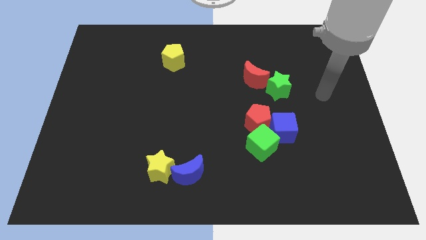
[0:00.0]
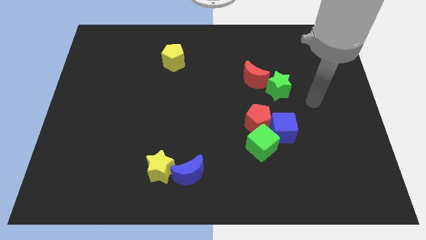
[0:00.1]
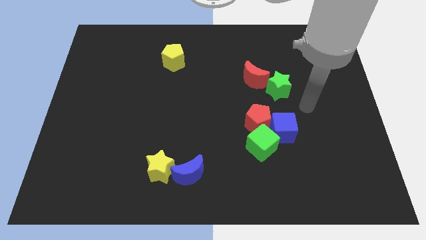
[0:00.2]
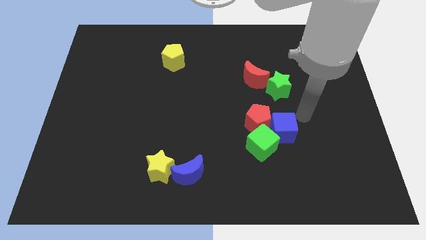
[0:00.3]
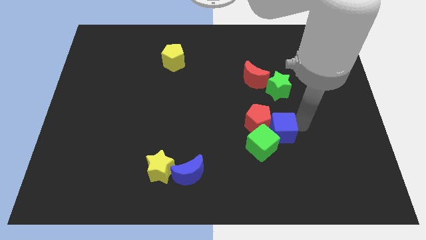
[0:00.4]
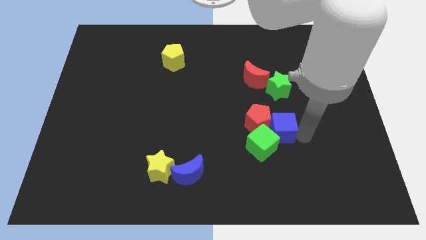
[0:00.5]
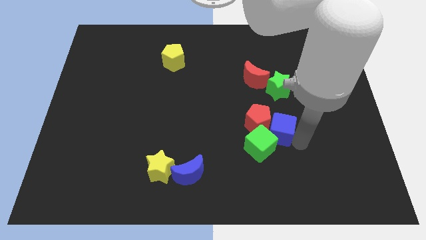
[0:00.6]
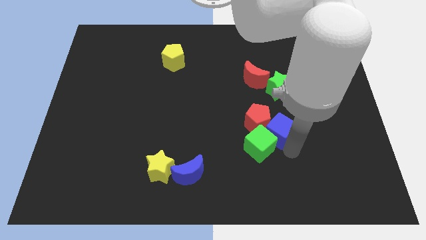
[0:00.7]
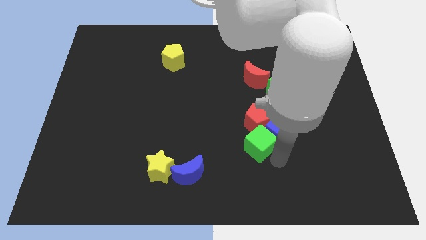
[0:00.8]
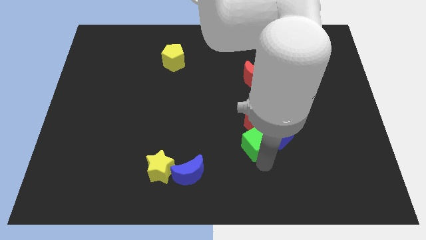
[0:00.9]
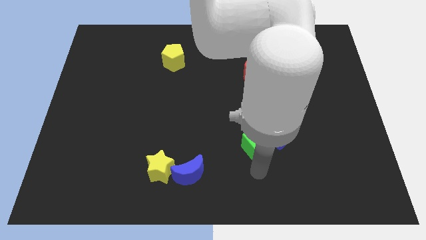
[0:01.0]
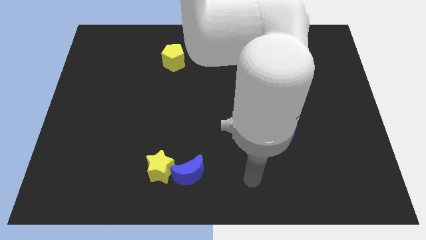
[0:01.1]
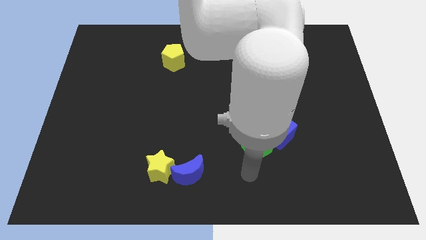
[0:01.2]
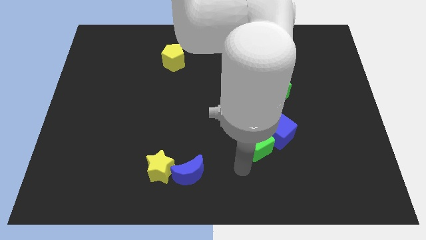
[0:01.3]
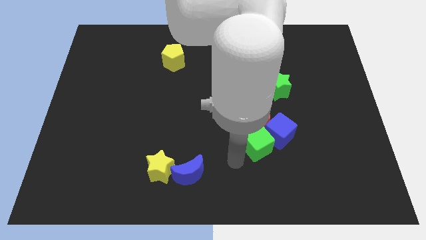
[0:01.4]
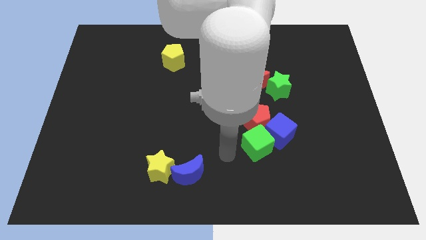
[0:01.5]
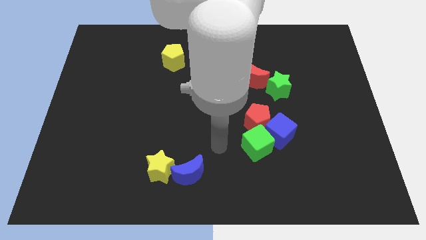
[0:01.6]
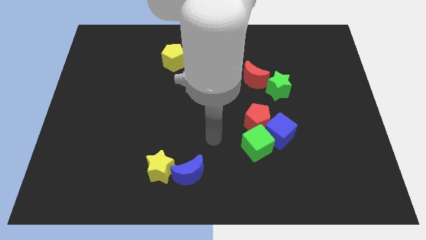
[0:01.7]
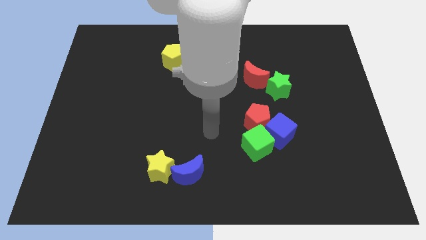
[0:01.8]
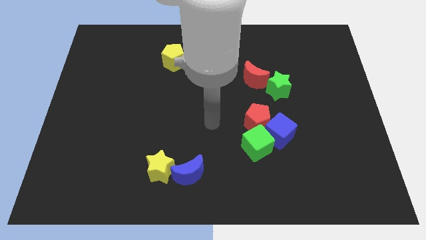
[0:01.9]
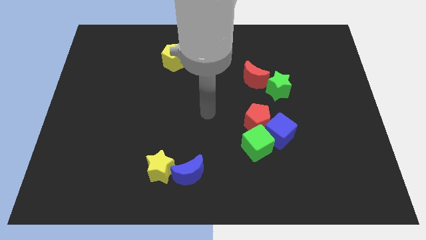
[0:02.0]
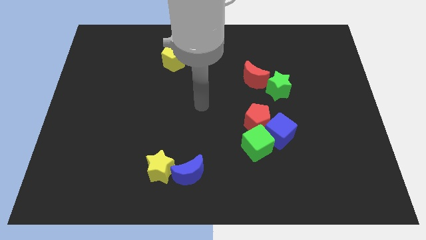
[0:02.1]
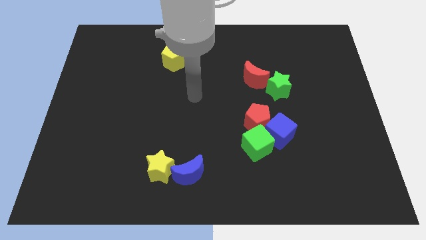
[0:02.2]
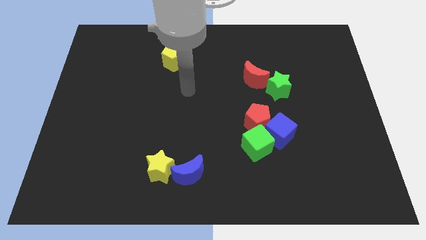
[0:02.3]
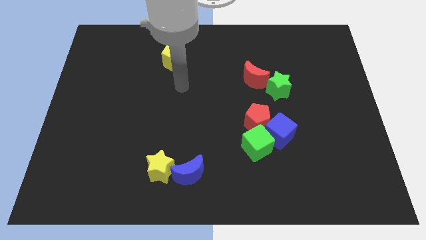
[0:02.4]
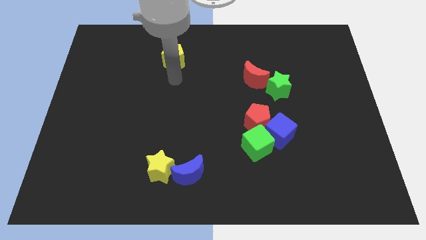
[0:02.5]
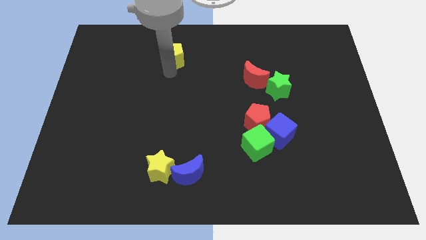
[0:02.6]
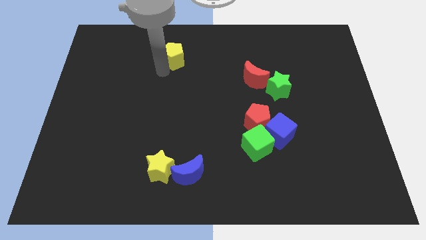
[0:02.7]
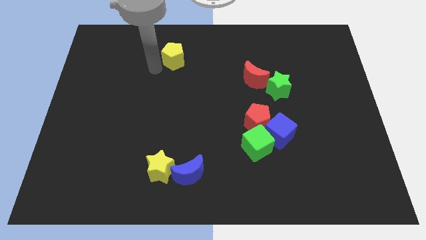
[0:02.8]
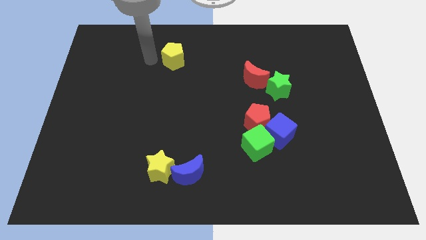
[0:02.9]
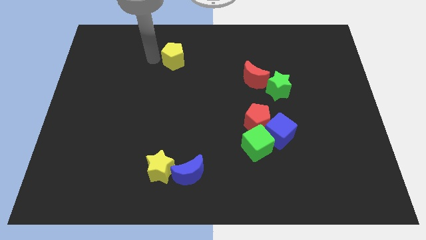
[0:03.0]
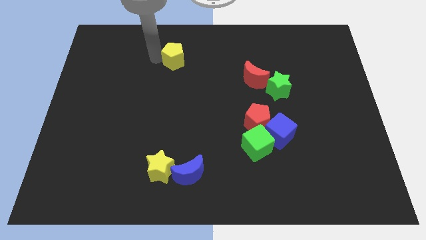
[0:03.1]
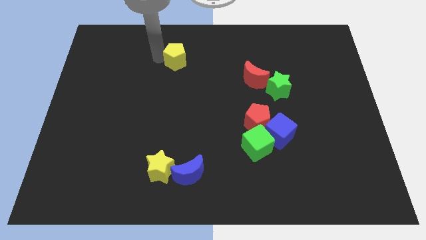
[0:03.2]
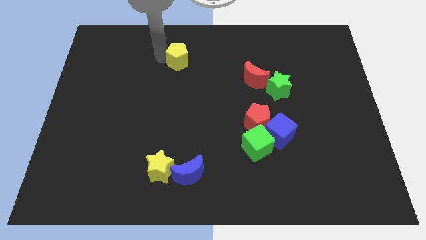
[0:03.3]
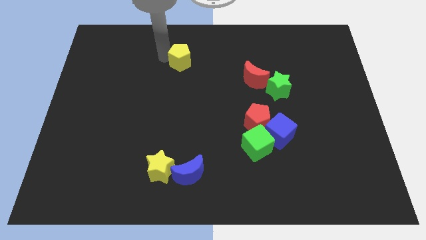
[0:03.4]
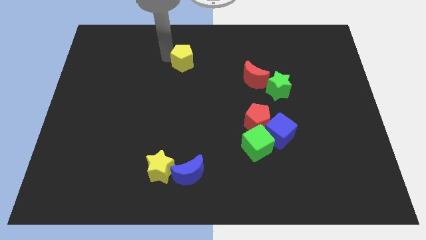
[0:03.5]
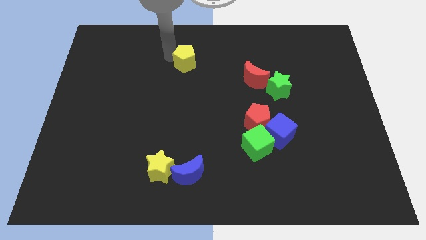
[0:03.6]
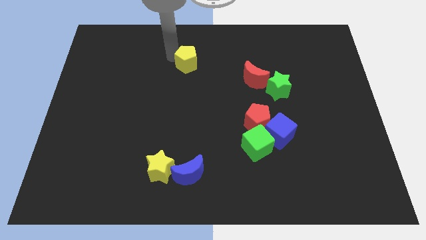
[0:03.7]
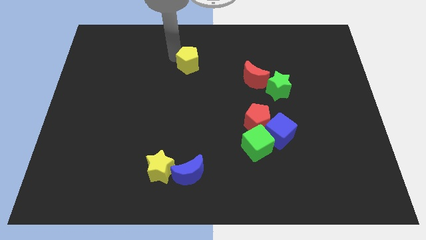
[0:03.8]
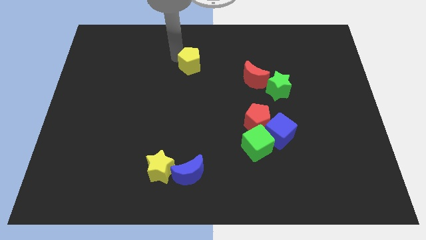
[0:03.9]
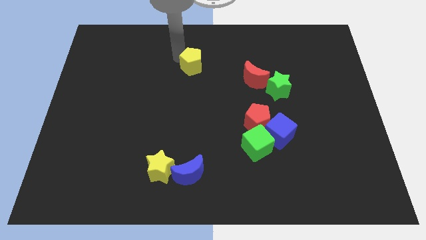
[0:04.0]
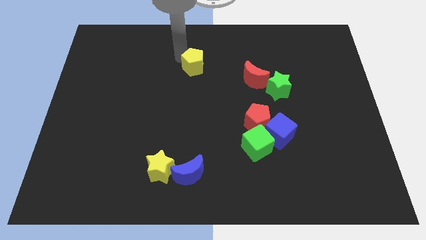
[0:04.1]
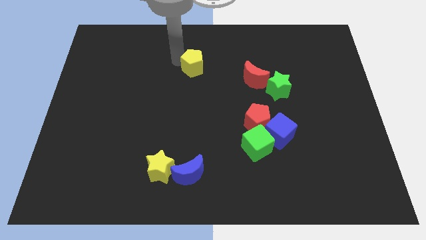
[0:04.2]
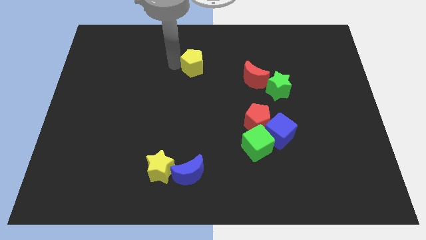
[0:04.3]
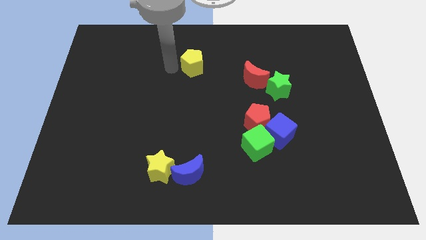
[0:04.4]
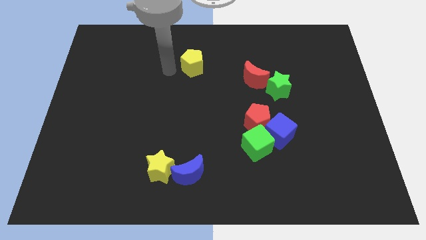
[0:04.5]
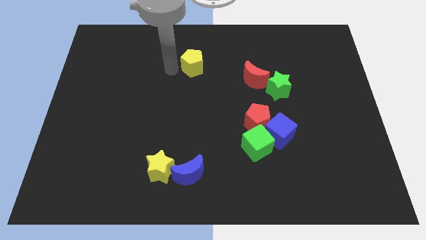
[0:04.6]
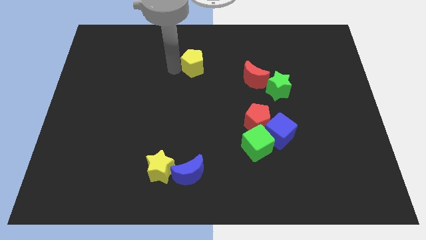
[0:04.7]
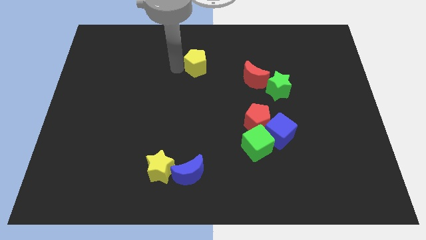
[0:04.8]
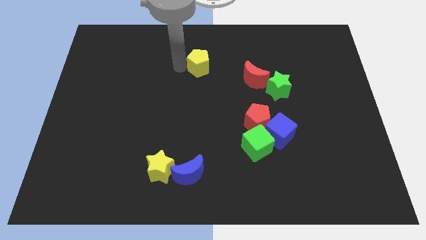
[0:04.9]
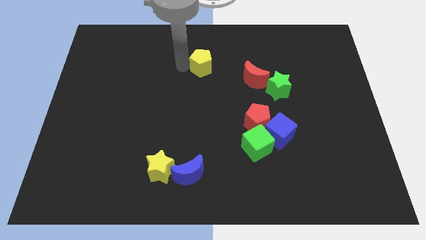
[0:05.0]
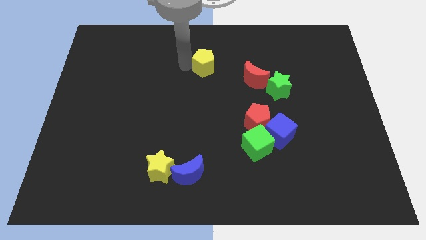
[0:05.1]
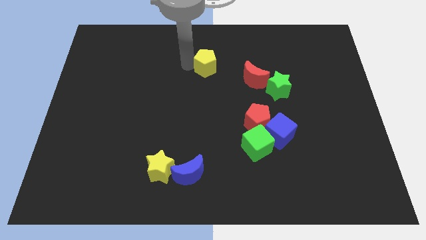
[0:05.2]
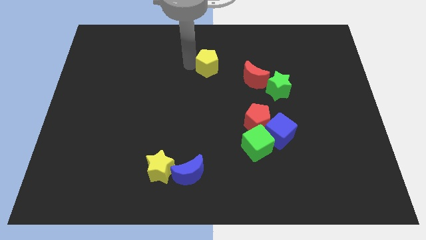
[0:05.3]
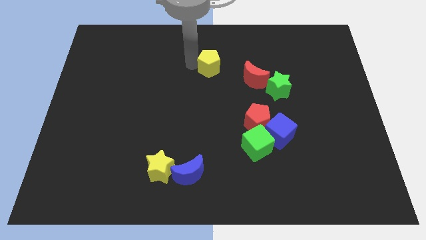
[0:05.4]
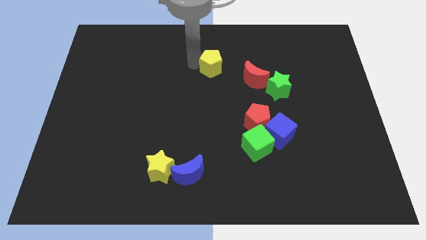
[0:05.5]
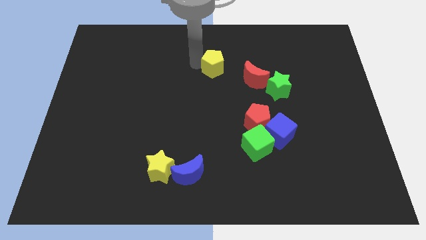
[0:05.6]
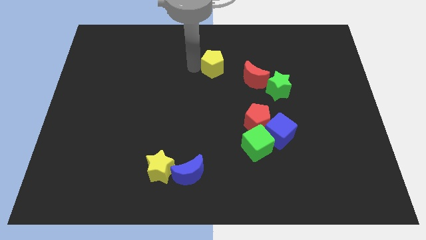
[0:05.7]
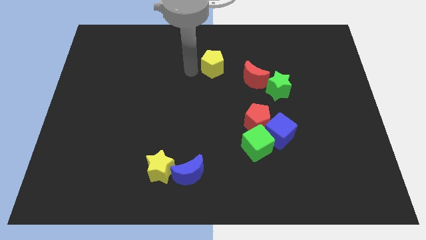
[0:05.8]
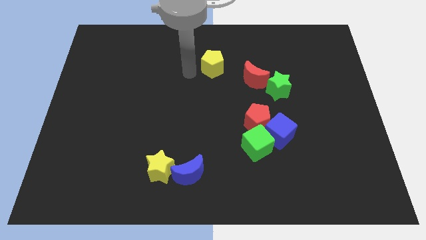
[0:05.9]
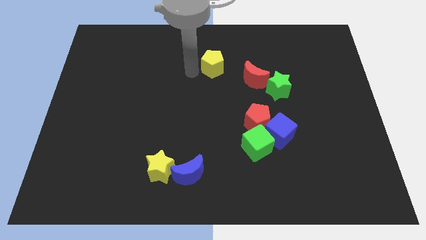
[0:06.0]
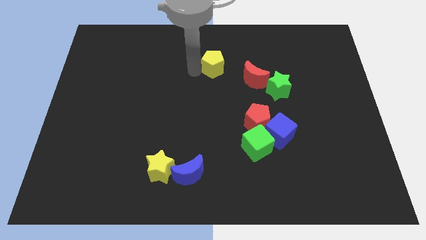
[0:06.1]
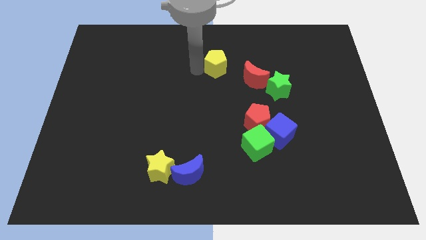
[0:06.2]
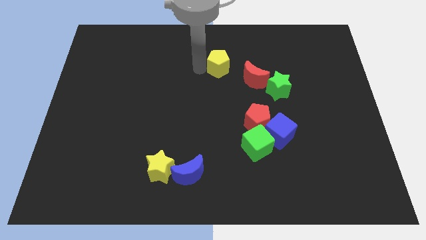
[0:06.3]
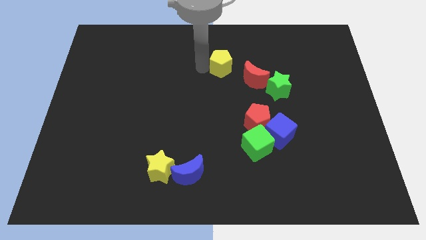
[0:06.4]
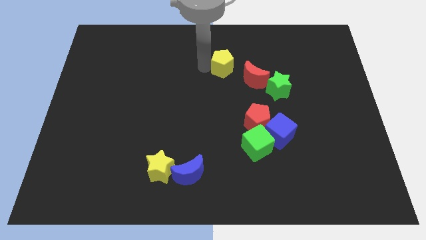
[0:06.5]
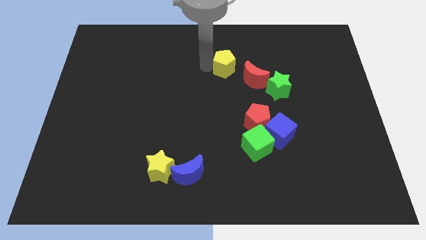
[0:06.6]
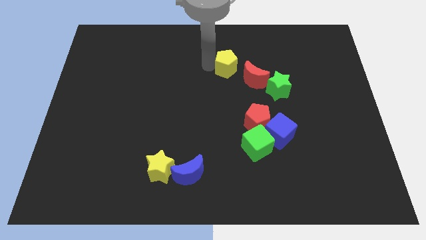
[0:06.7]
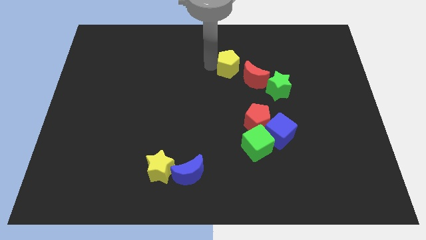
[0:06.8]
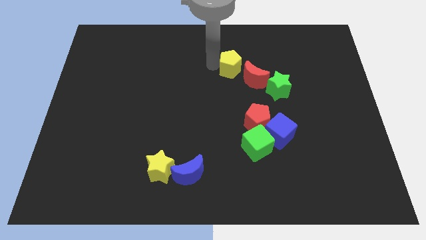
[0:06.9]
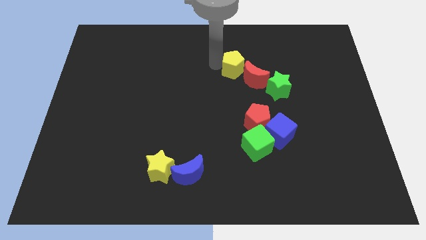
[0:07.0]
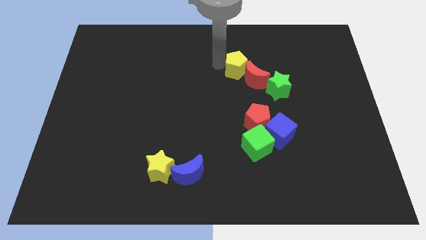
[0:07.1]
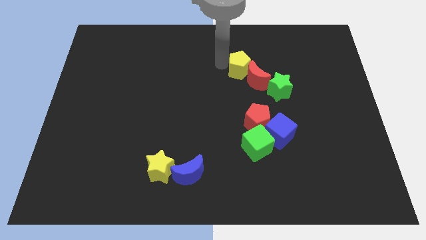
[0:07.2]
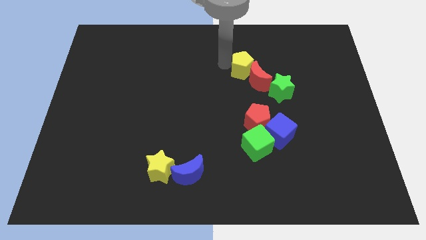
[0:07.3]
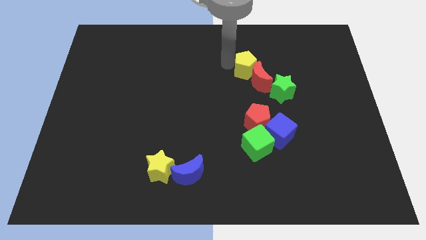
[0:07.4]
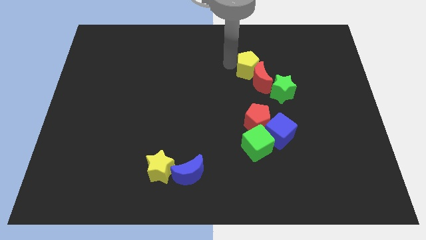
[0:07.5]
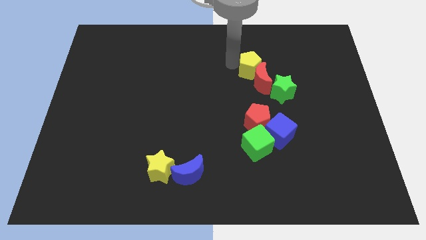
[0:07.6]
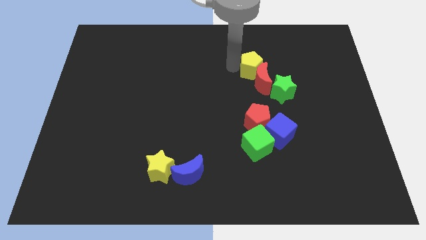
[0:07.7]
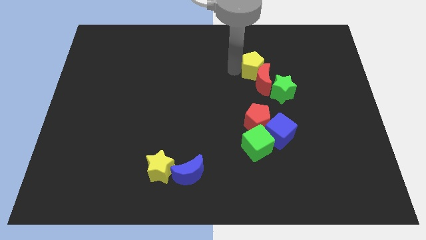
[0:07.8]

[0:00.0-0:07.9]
push the yellow pentagon to the right
